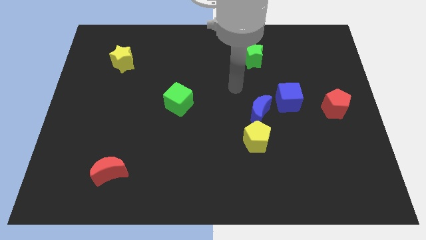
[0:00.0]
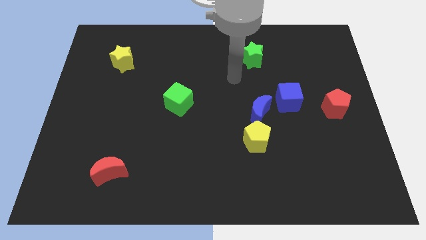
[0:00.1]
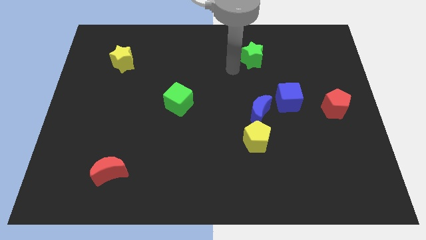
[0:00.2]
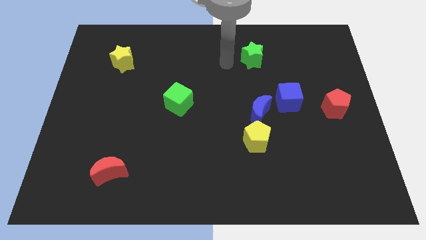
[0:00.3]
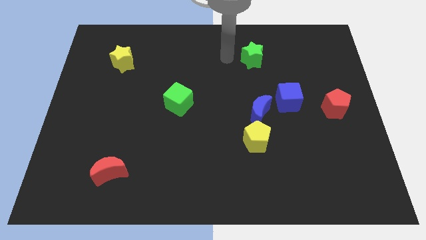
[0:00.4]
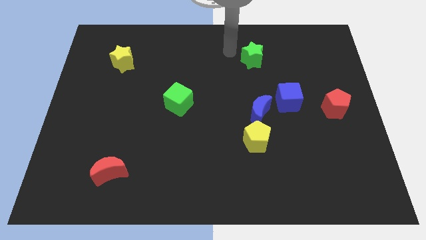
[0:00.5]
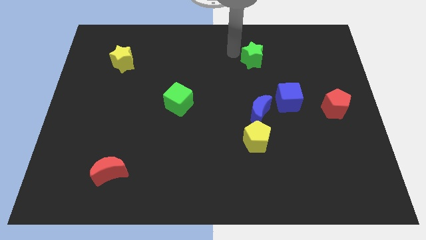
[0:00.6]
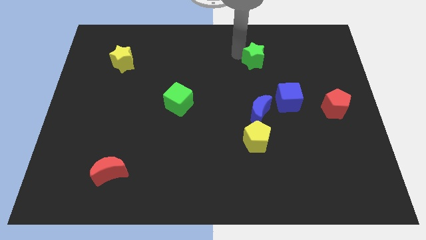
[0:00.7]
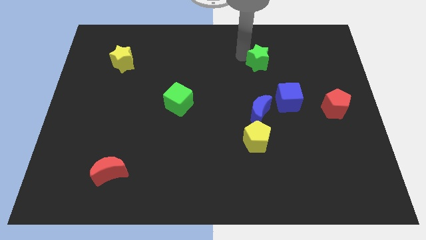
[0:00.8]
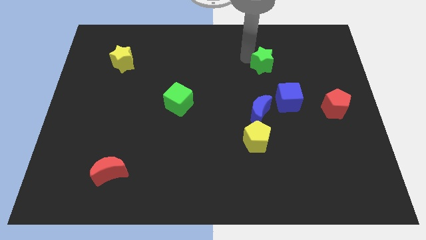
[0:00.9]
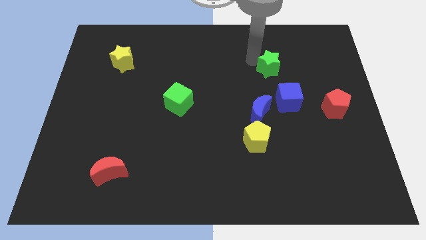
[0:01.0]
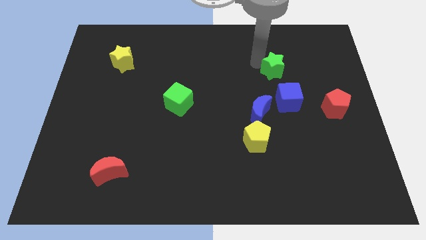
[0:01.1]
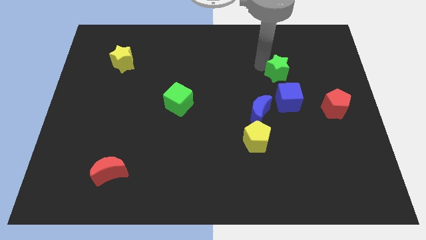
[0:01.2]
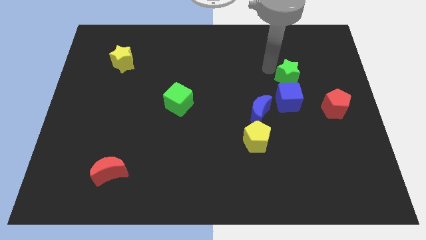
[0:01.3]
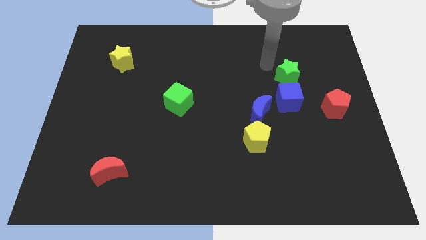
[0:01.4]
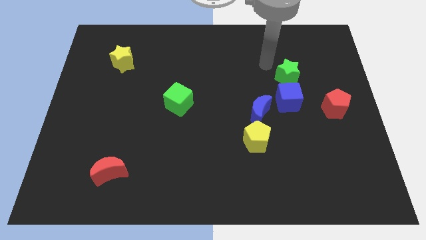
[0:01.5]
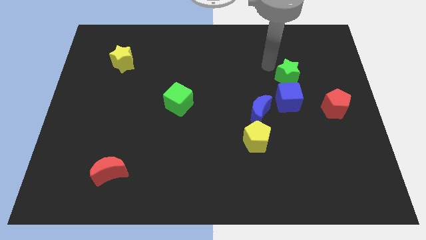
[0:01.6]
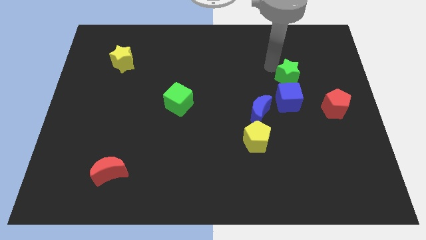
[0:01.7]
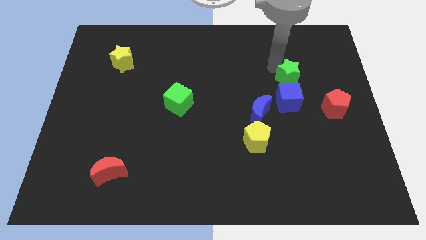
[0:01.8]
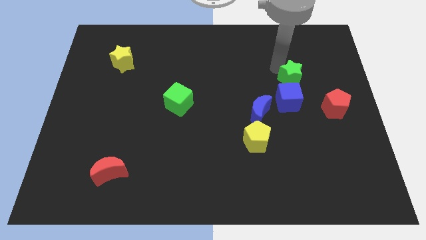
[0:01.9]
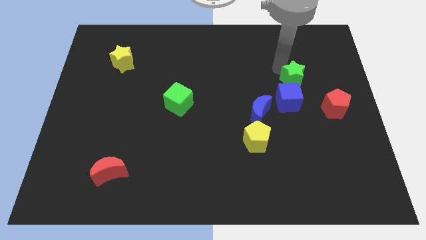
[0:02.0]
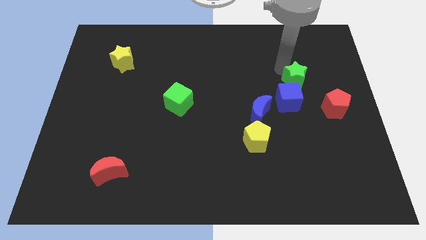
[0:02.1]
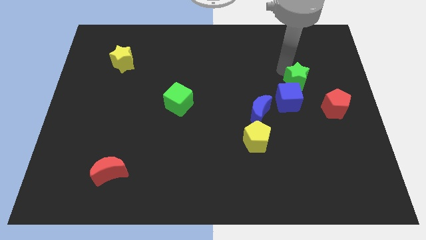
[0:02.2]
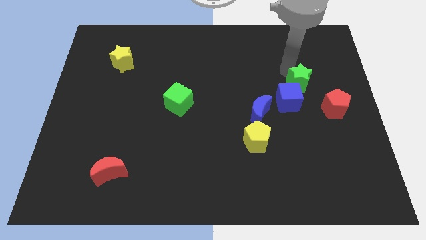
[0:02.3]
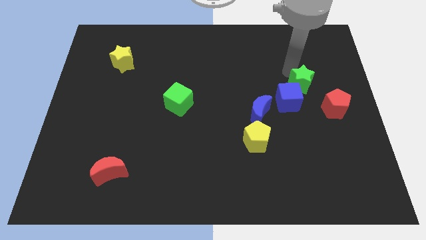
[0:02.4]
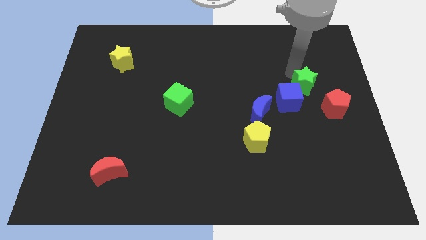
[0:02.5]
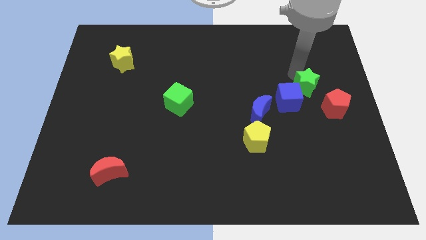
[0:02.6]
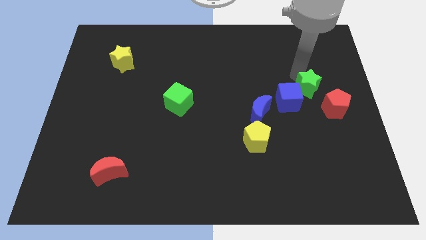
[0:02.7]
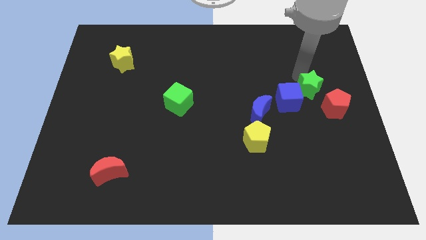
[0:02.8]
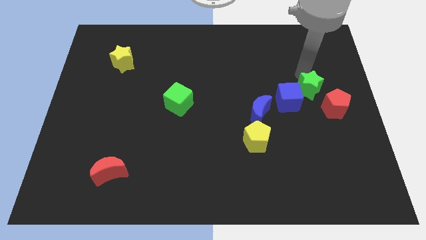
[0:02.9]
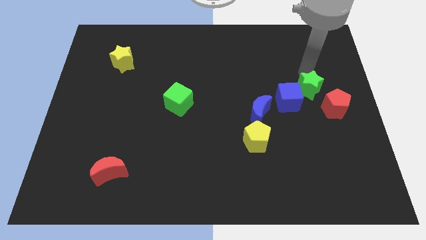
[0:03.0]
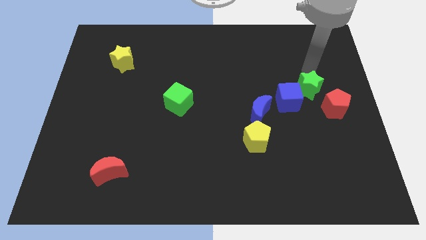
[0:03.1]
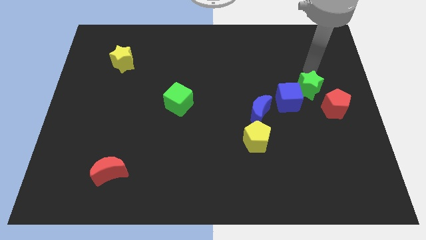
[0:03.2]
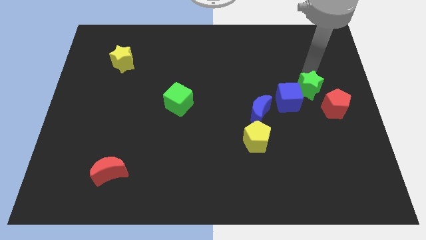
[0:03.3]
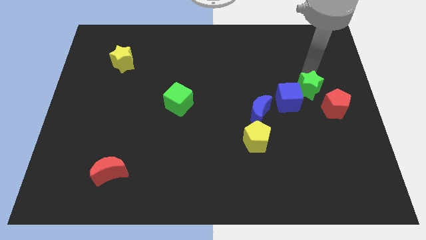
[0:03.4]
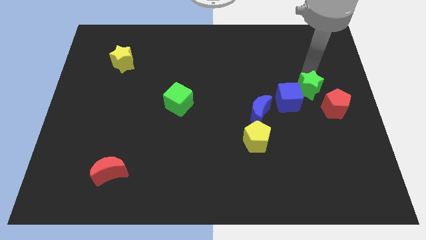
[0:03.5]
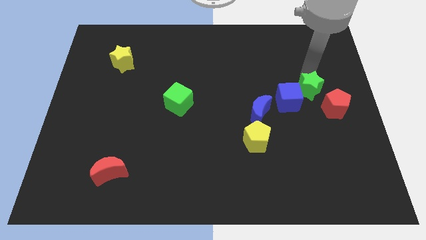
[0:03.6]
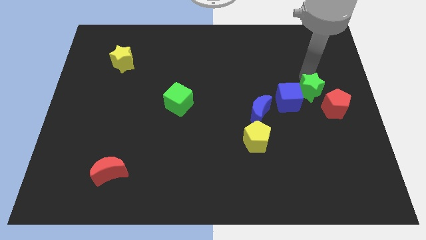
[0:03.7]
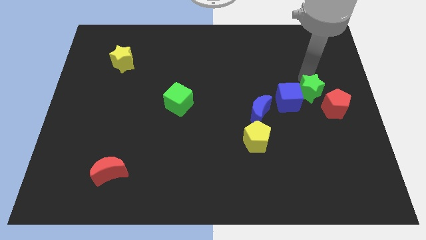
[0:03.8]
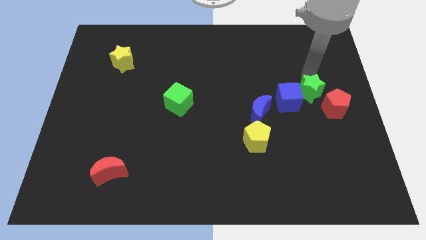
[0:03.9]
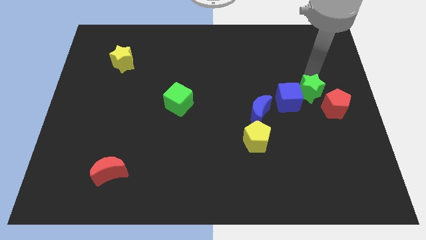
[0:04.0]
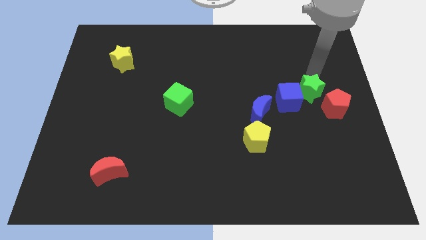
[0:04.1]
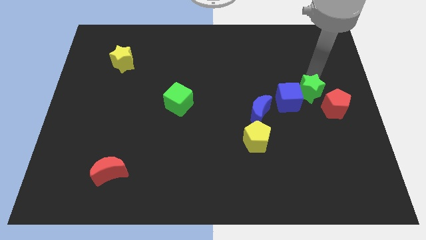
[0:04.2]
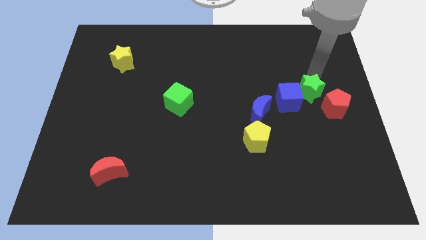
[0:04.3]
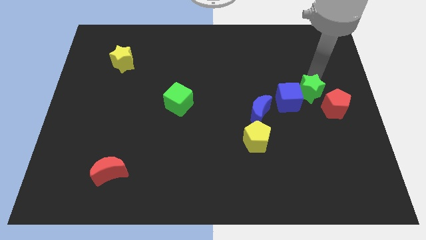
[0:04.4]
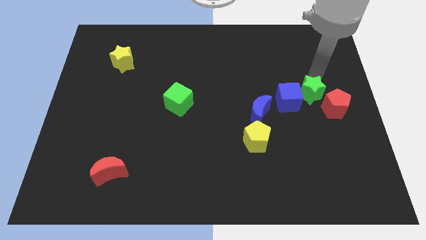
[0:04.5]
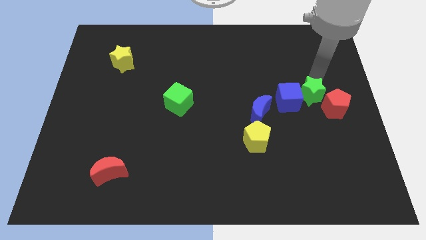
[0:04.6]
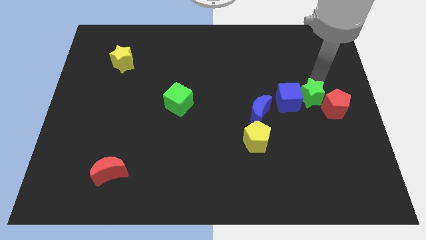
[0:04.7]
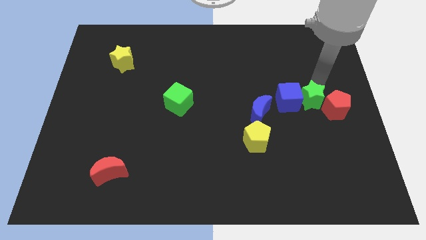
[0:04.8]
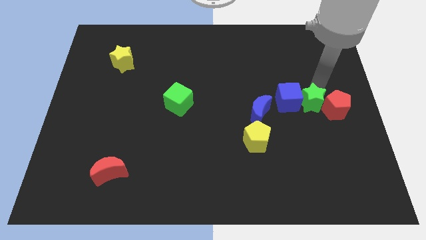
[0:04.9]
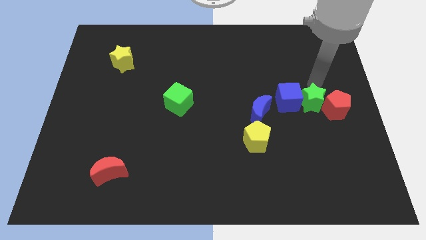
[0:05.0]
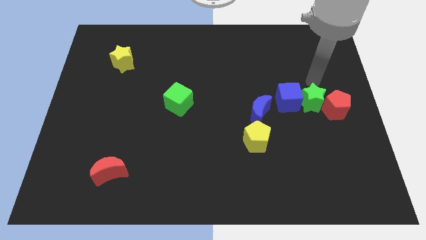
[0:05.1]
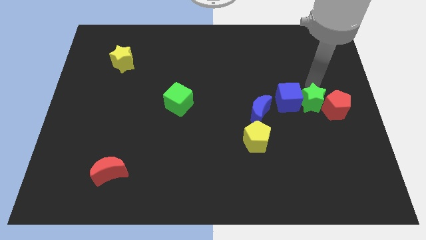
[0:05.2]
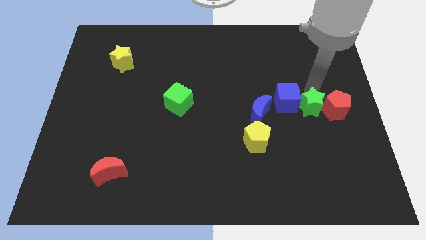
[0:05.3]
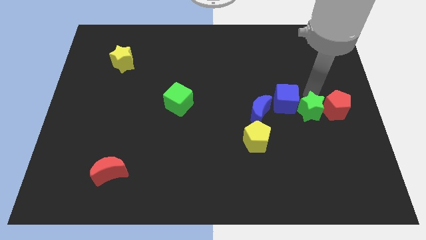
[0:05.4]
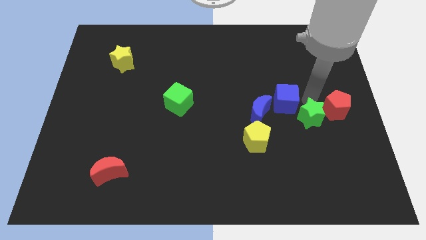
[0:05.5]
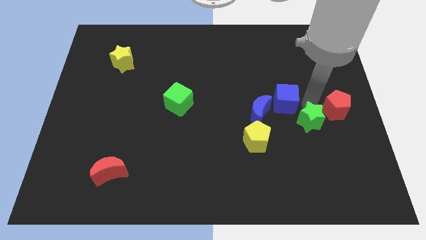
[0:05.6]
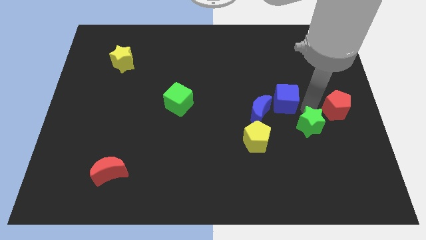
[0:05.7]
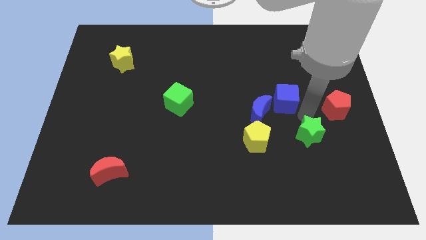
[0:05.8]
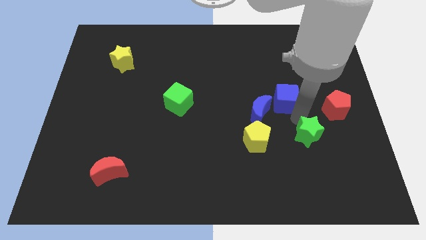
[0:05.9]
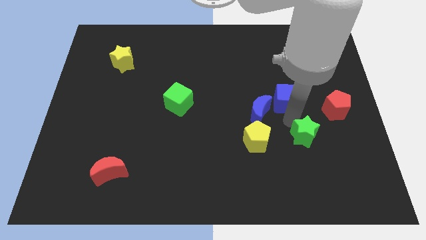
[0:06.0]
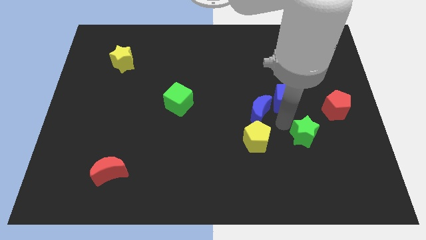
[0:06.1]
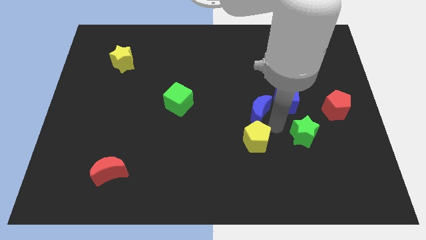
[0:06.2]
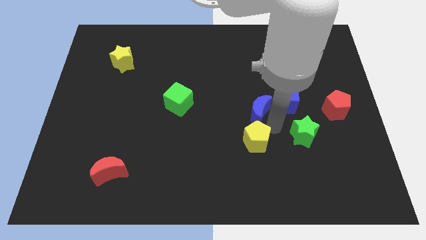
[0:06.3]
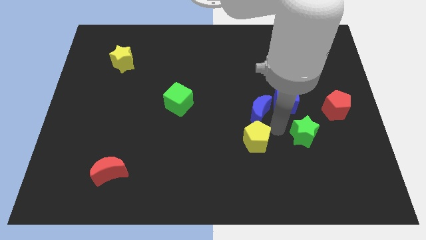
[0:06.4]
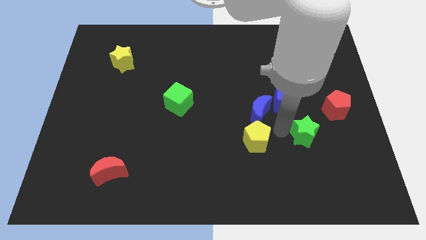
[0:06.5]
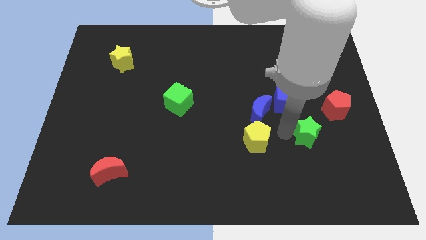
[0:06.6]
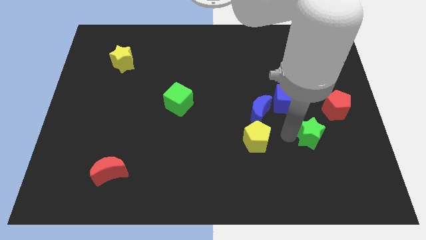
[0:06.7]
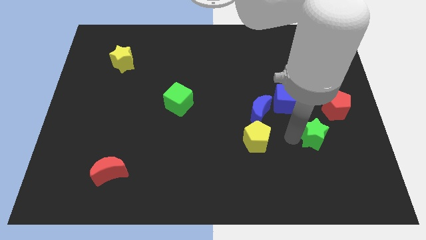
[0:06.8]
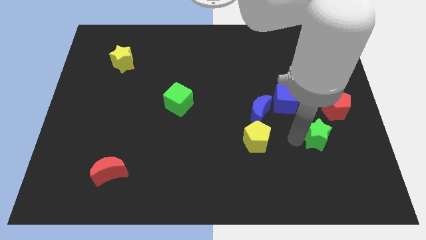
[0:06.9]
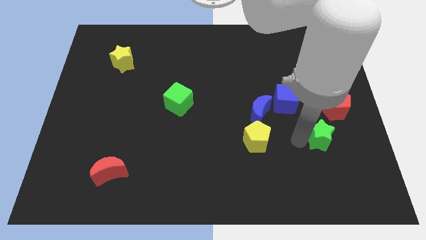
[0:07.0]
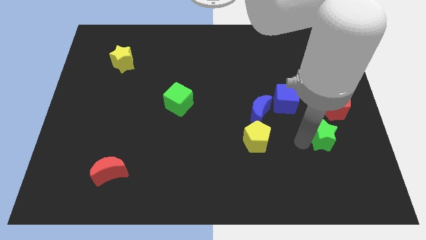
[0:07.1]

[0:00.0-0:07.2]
move the green star to the bottom side of the red pentagon

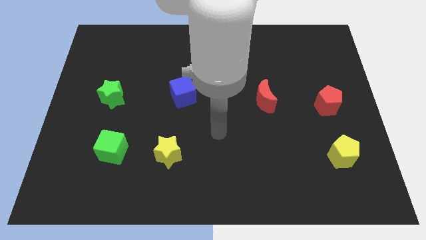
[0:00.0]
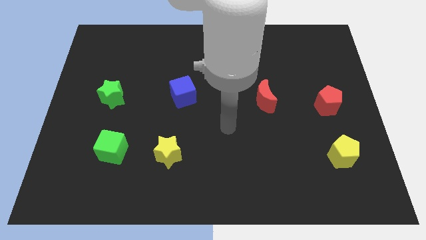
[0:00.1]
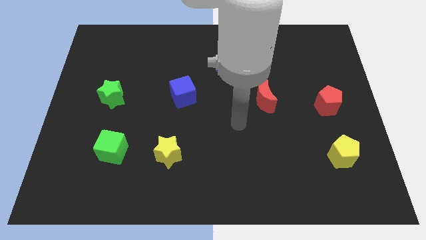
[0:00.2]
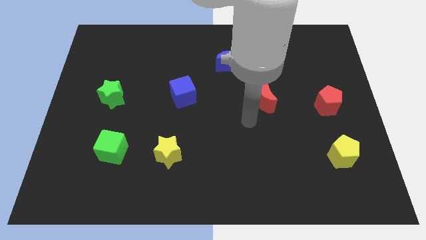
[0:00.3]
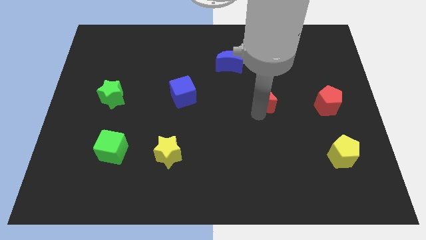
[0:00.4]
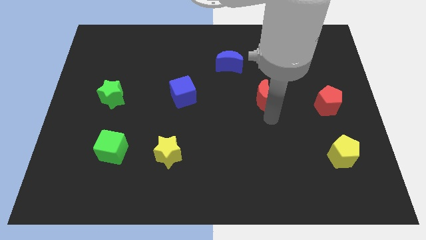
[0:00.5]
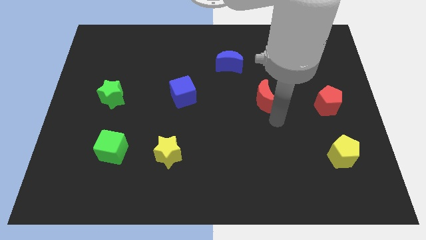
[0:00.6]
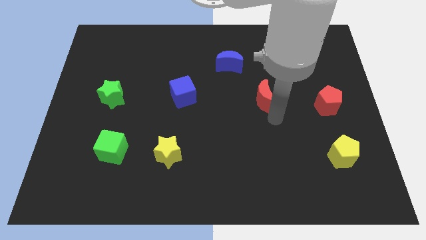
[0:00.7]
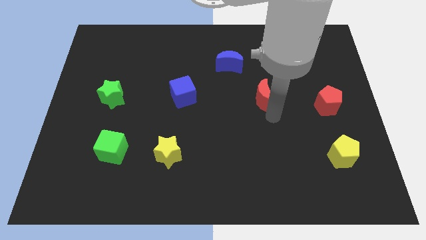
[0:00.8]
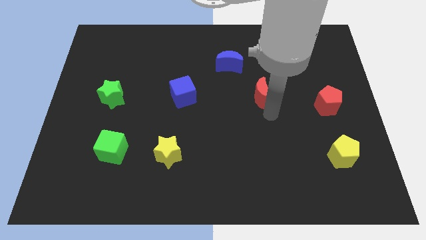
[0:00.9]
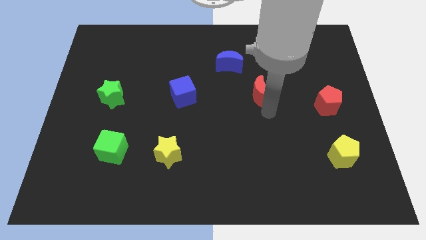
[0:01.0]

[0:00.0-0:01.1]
slide the red moon to the bottom right of the blue moon

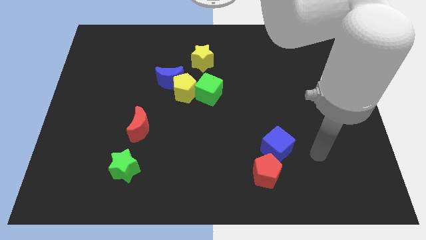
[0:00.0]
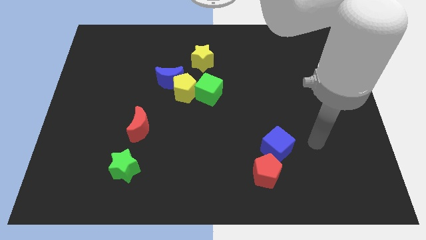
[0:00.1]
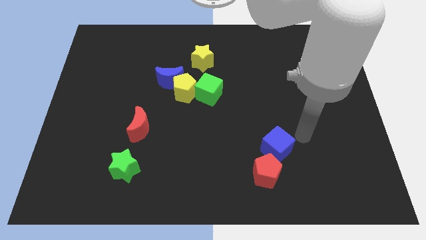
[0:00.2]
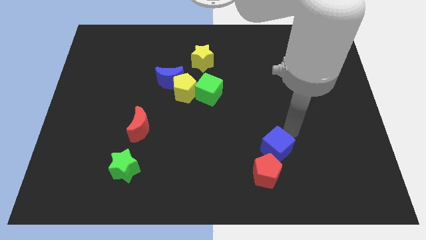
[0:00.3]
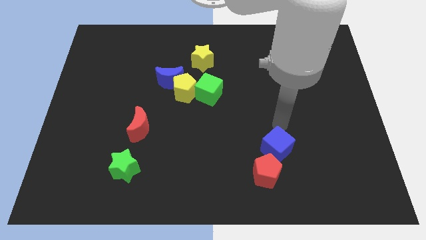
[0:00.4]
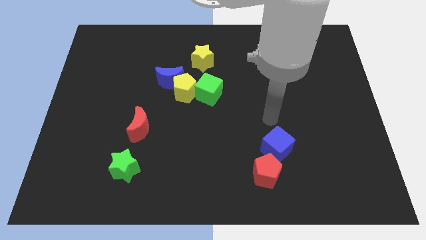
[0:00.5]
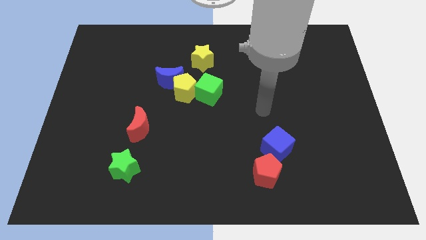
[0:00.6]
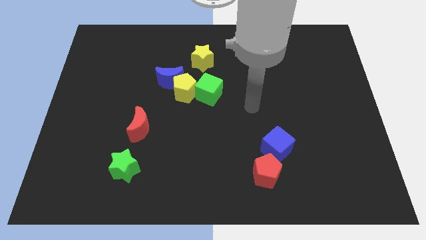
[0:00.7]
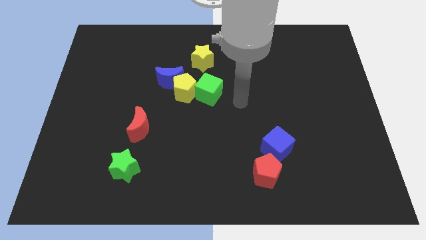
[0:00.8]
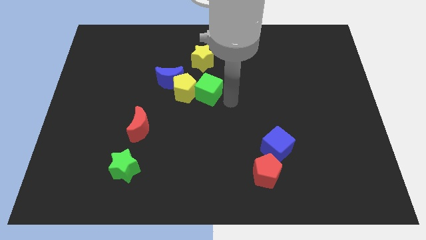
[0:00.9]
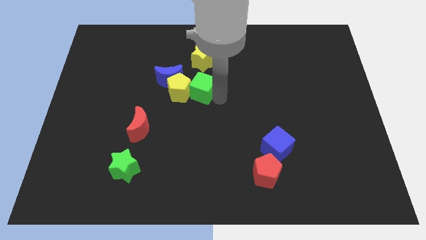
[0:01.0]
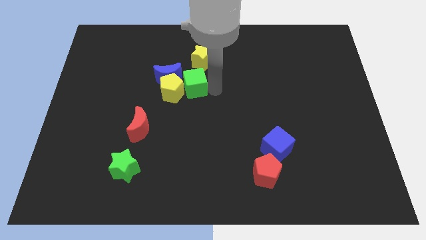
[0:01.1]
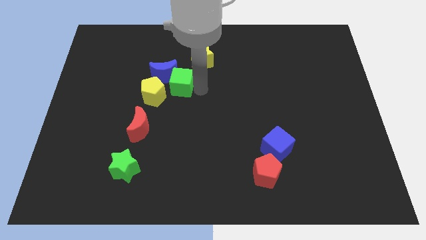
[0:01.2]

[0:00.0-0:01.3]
put the yellow pentagon to the top side of the red moon
